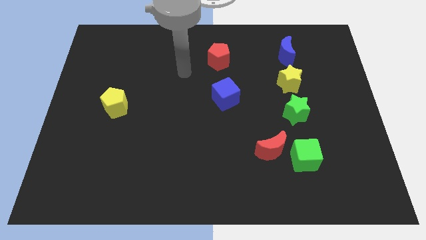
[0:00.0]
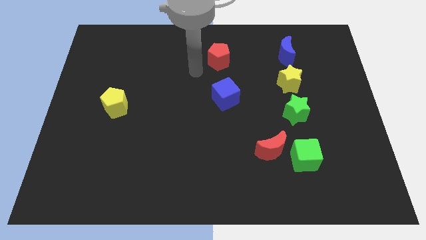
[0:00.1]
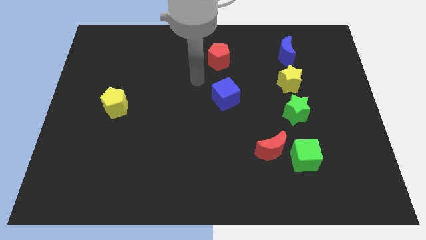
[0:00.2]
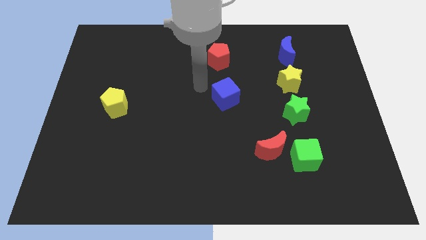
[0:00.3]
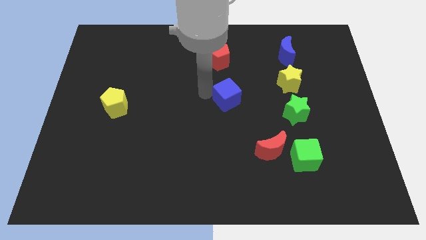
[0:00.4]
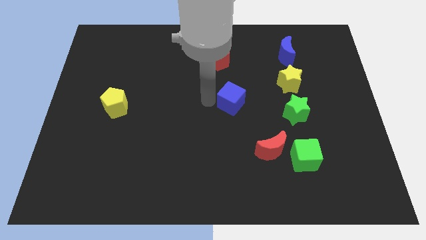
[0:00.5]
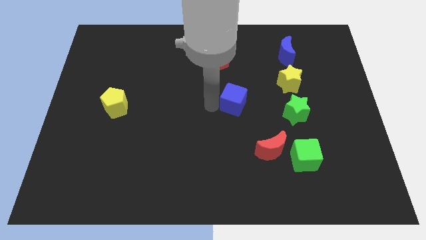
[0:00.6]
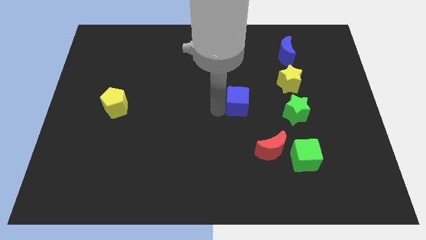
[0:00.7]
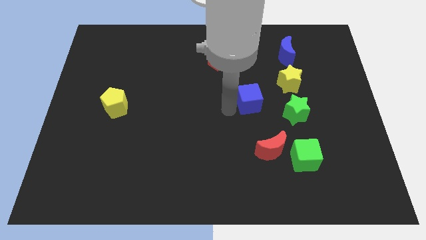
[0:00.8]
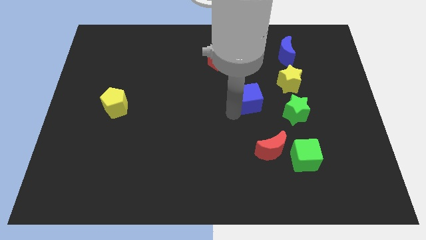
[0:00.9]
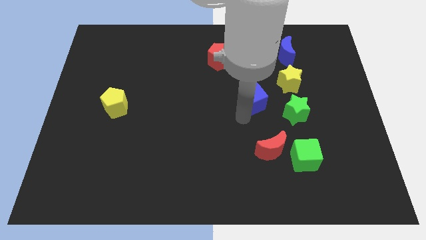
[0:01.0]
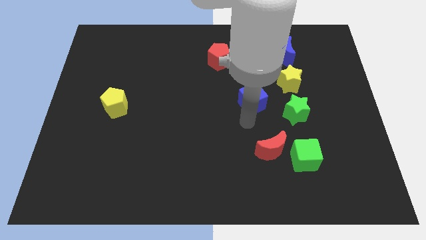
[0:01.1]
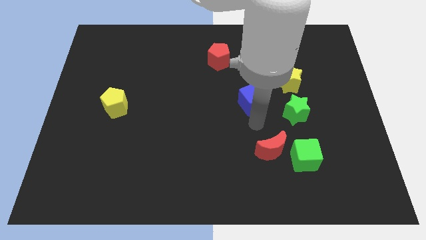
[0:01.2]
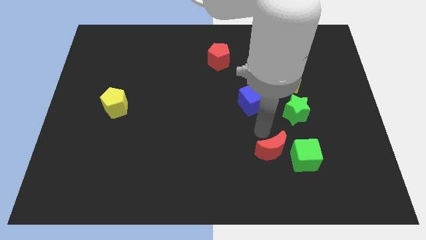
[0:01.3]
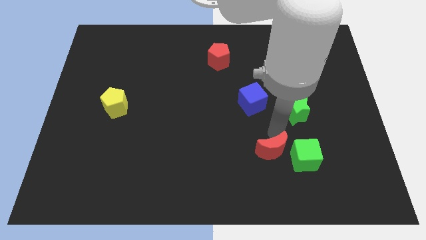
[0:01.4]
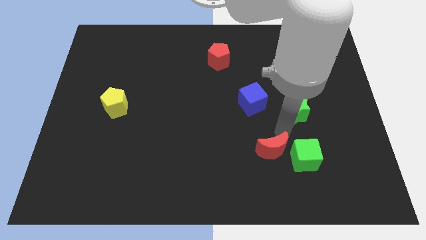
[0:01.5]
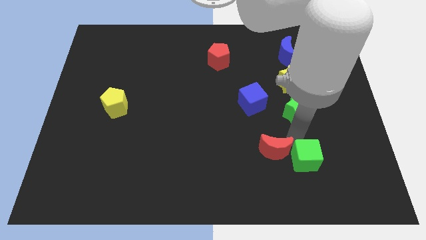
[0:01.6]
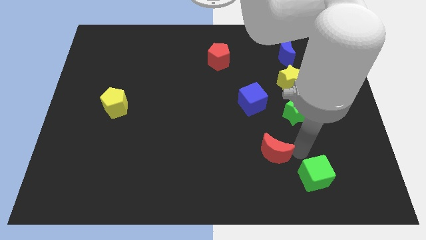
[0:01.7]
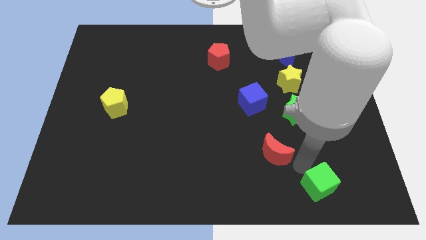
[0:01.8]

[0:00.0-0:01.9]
pull the red moon apart from the green cube

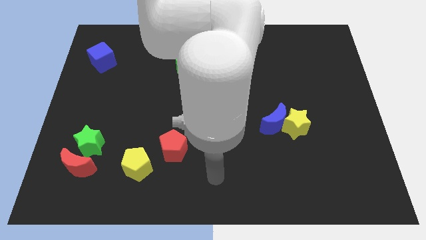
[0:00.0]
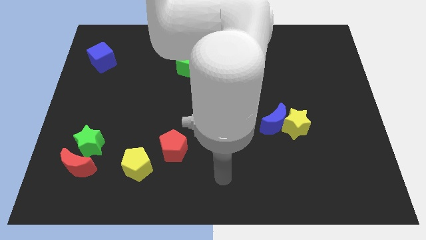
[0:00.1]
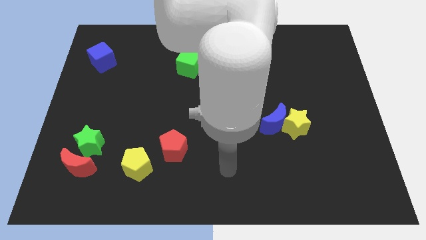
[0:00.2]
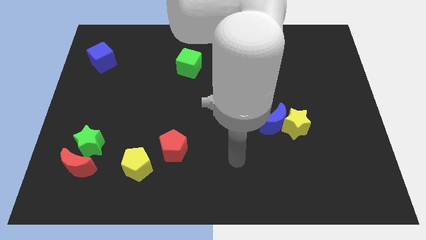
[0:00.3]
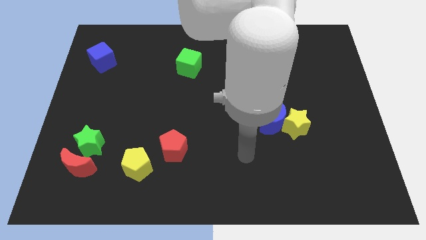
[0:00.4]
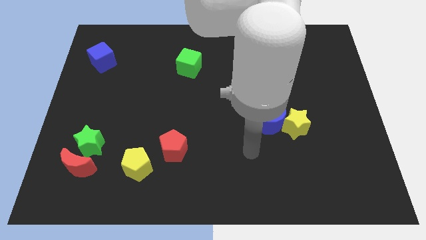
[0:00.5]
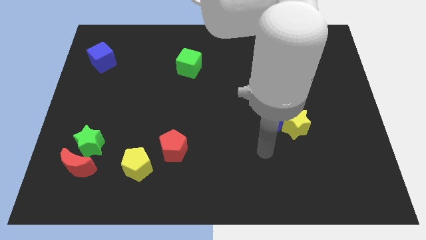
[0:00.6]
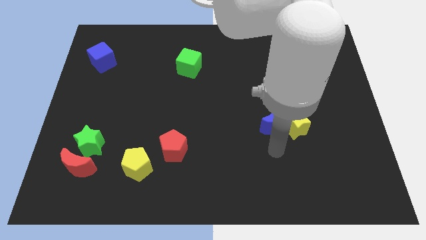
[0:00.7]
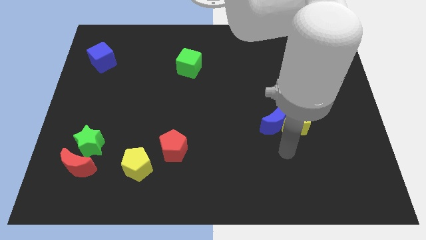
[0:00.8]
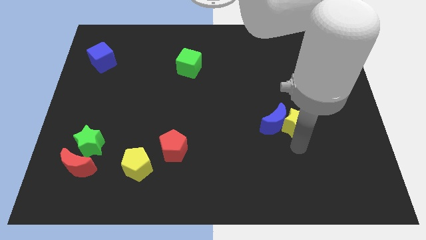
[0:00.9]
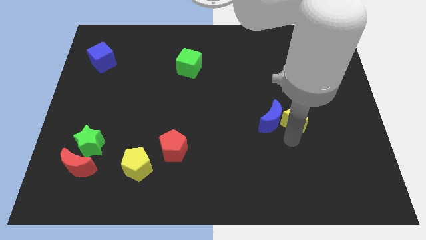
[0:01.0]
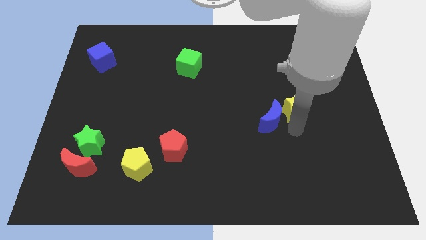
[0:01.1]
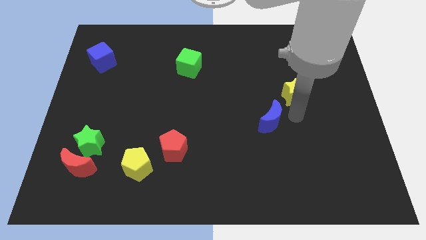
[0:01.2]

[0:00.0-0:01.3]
separate the blue moon from the yellow star

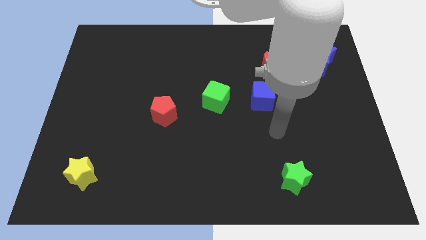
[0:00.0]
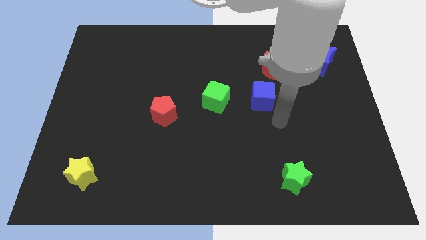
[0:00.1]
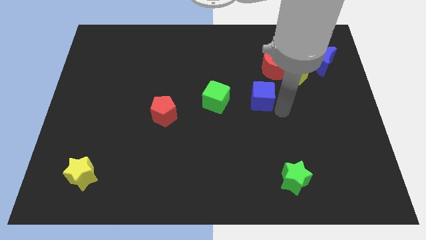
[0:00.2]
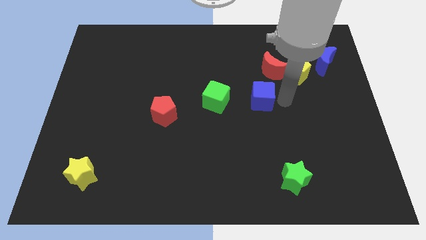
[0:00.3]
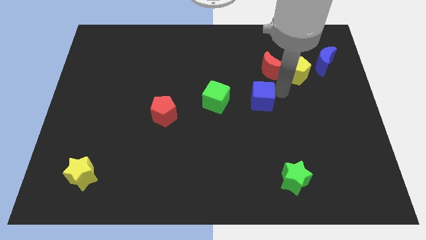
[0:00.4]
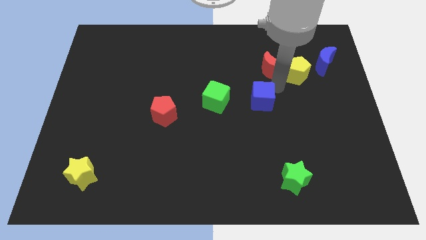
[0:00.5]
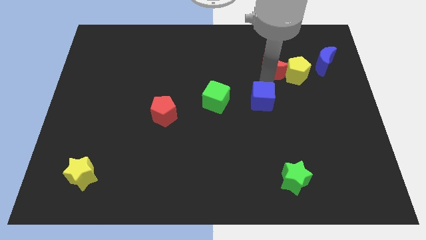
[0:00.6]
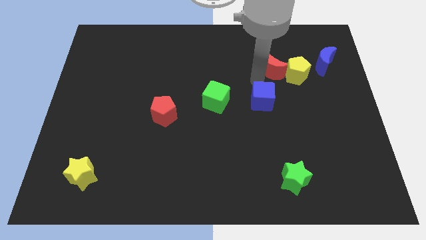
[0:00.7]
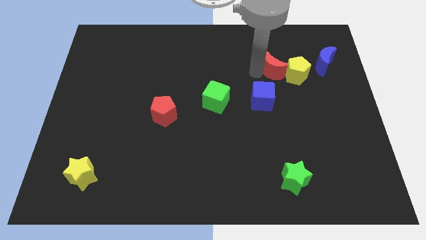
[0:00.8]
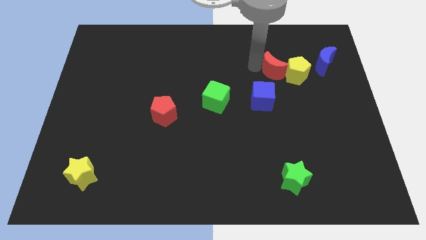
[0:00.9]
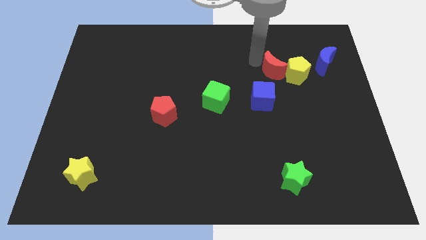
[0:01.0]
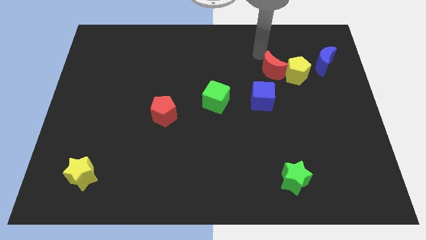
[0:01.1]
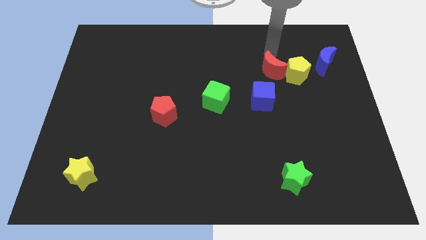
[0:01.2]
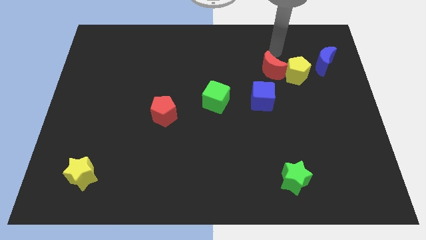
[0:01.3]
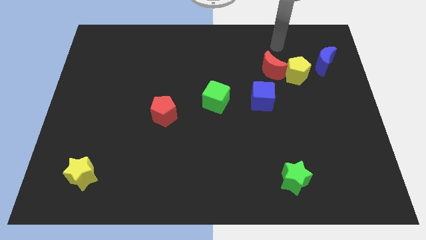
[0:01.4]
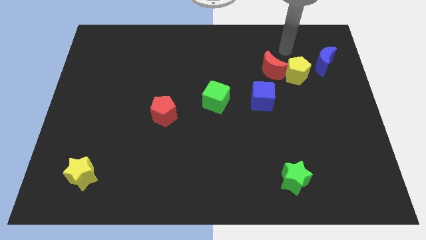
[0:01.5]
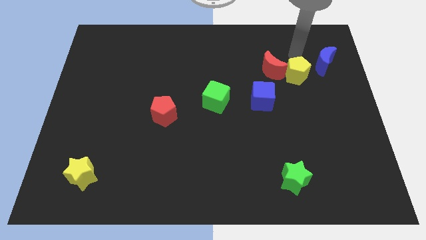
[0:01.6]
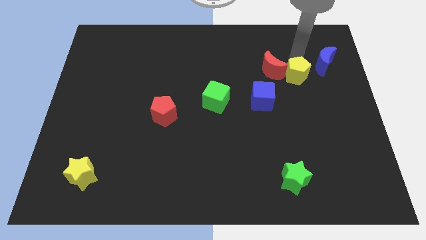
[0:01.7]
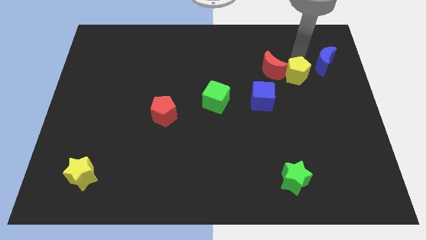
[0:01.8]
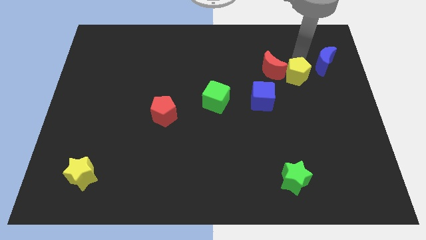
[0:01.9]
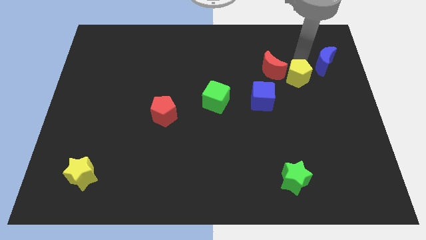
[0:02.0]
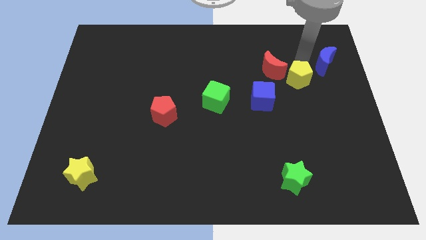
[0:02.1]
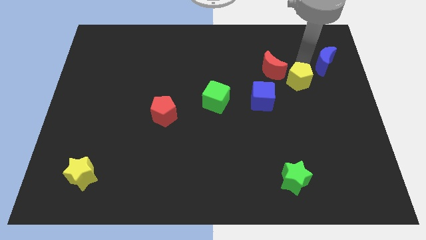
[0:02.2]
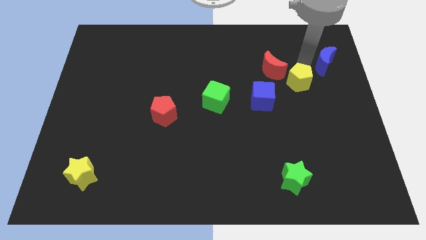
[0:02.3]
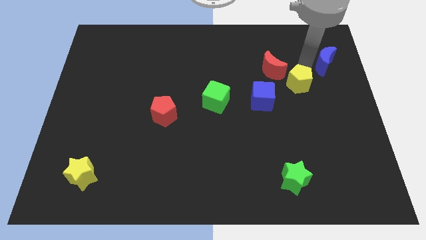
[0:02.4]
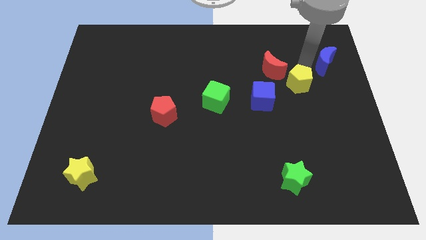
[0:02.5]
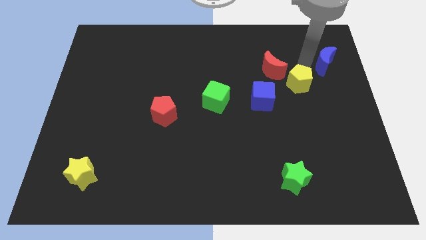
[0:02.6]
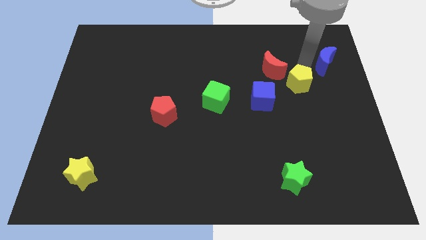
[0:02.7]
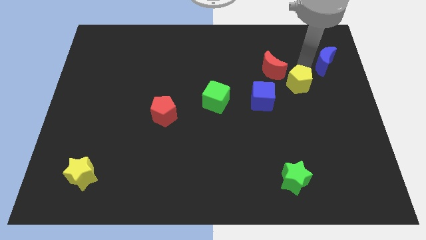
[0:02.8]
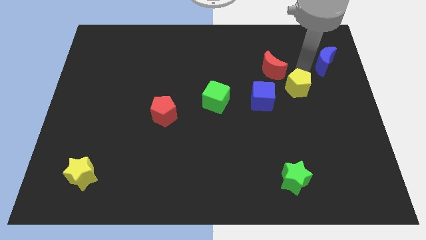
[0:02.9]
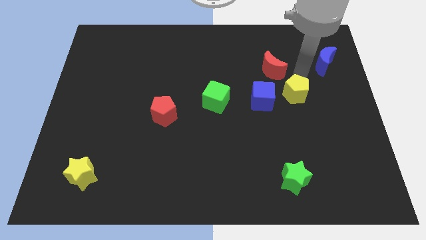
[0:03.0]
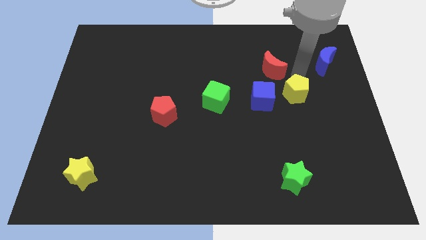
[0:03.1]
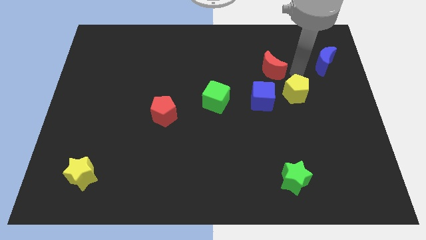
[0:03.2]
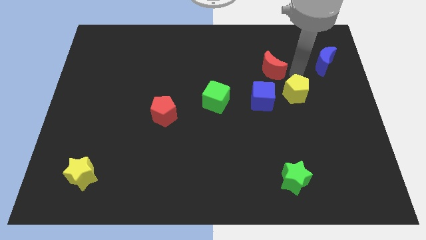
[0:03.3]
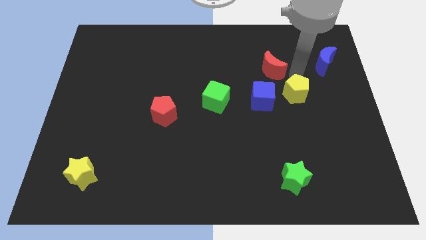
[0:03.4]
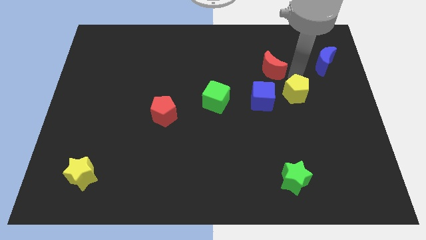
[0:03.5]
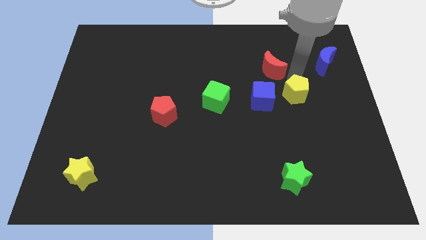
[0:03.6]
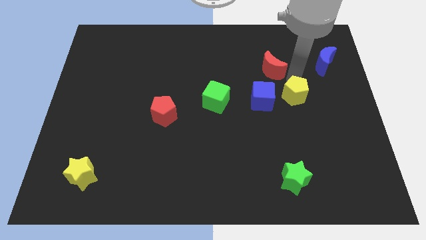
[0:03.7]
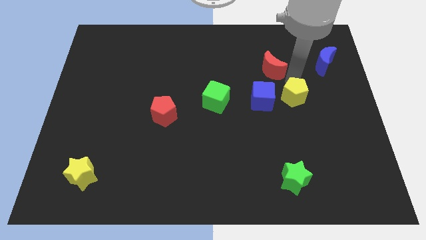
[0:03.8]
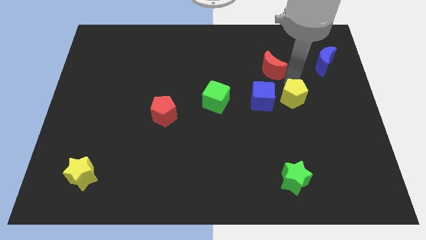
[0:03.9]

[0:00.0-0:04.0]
separate the yellow pentagon from the red moon and blue moon

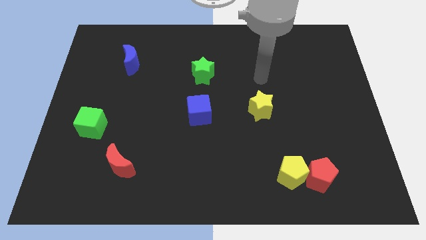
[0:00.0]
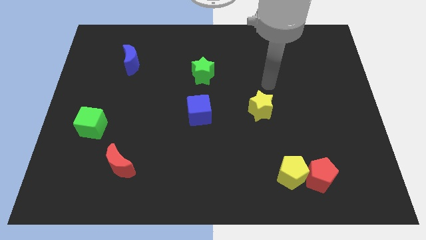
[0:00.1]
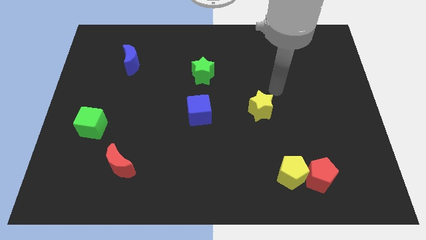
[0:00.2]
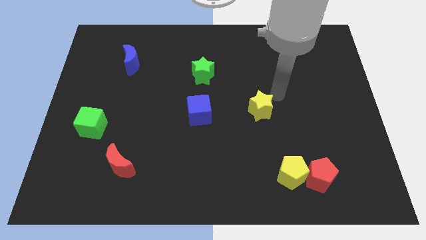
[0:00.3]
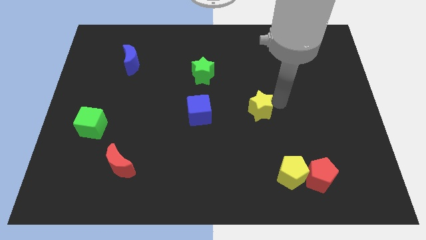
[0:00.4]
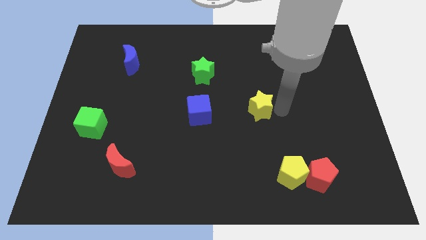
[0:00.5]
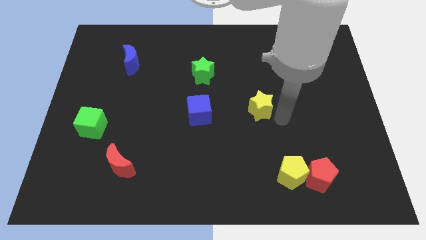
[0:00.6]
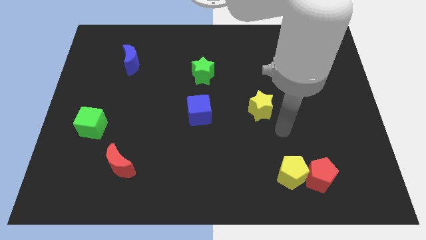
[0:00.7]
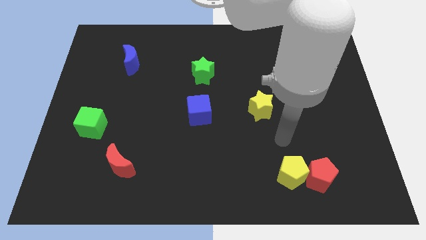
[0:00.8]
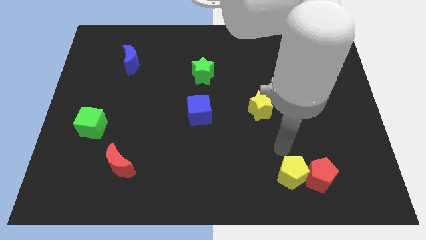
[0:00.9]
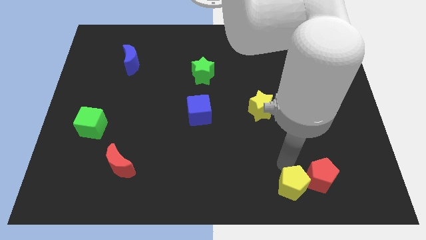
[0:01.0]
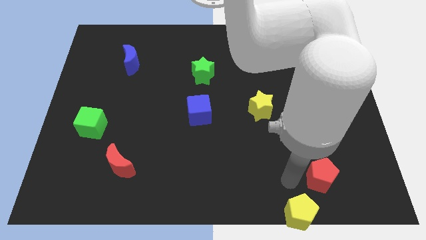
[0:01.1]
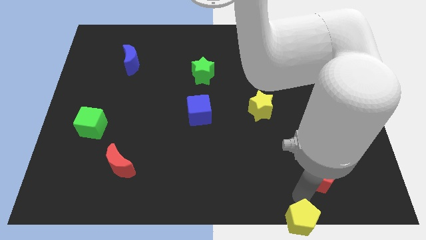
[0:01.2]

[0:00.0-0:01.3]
pull the red pentagon apart from the yellow pentagon

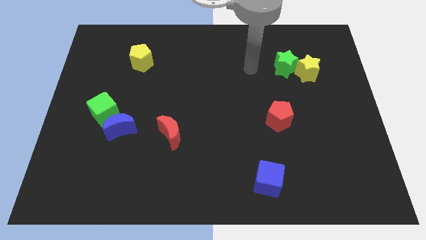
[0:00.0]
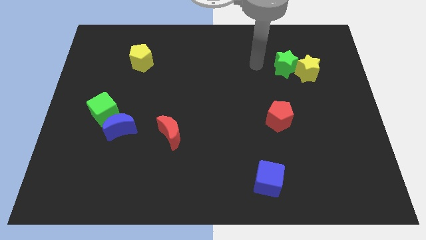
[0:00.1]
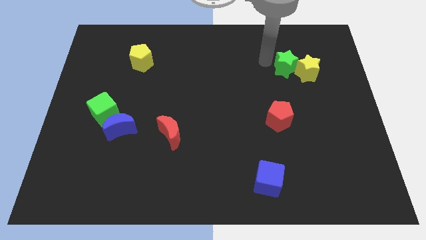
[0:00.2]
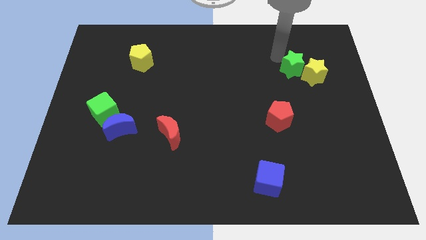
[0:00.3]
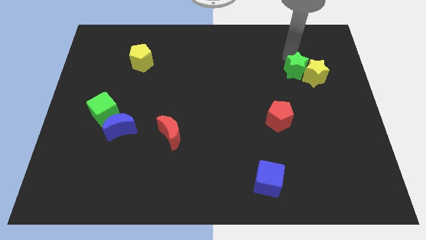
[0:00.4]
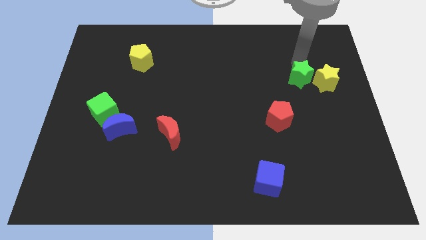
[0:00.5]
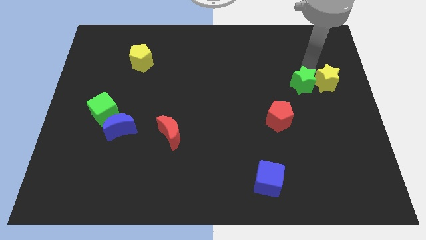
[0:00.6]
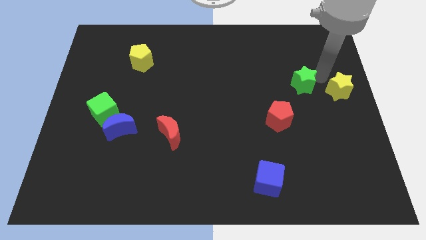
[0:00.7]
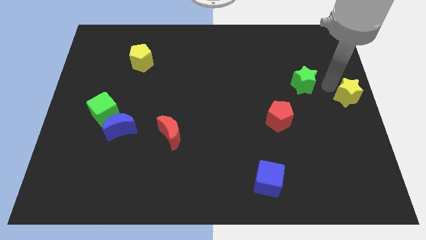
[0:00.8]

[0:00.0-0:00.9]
pull the green star apart from the yellow star
